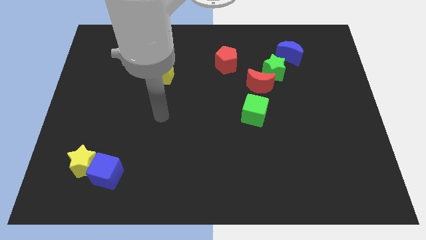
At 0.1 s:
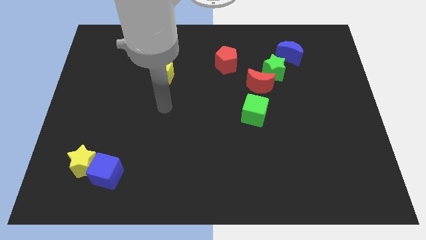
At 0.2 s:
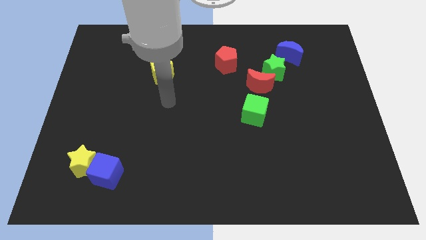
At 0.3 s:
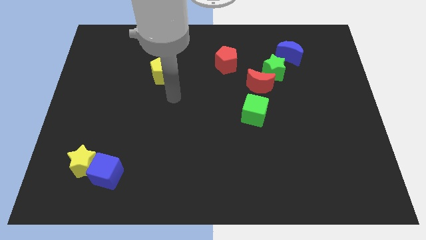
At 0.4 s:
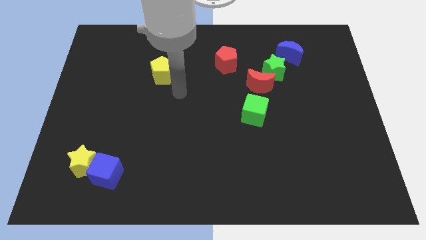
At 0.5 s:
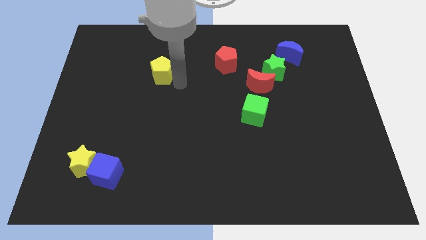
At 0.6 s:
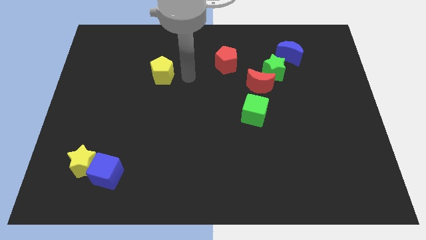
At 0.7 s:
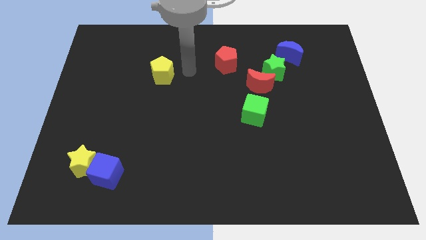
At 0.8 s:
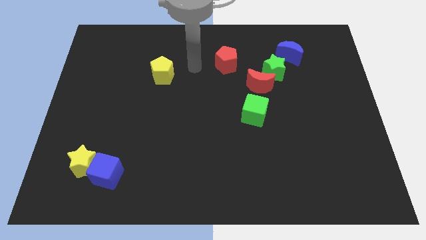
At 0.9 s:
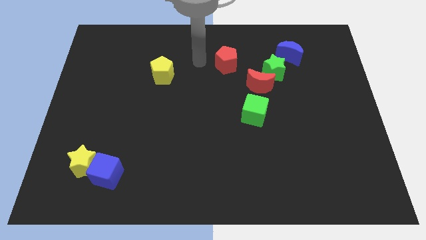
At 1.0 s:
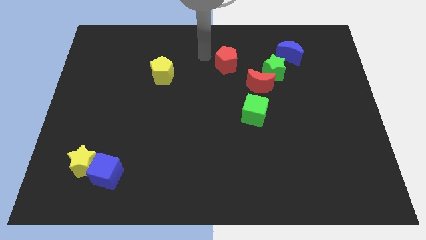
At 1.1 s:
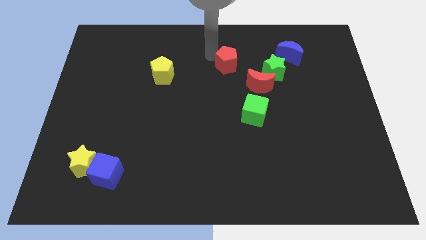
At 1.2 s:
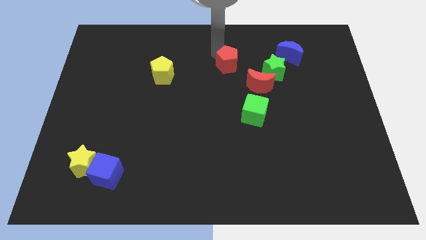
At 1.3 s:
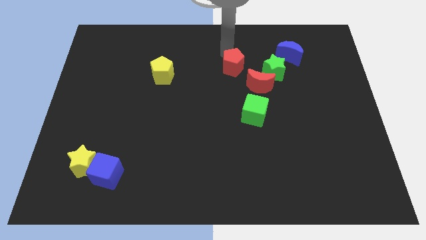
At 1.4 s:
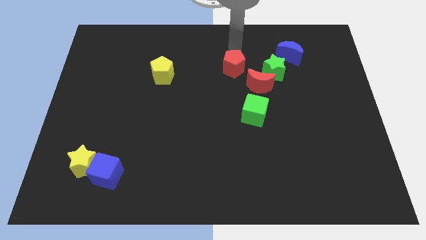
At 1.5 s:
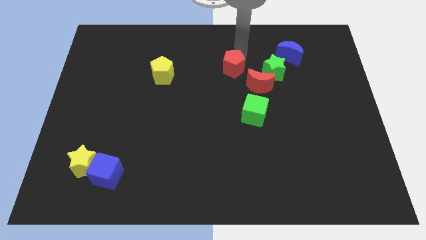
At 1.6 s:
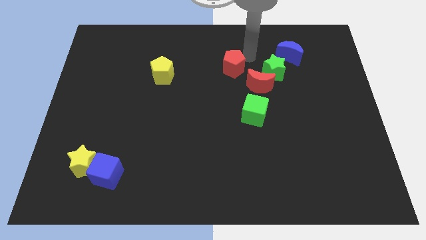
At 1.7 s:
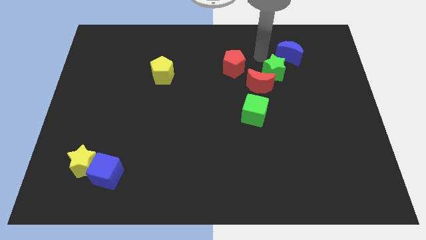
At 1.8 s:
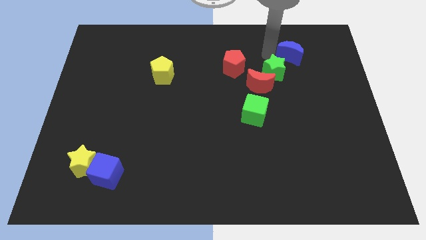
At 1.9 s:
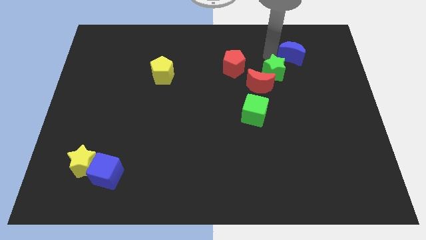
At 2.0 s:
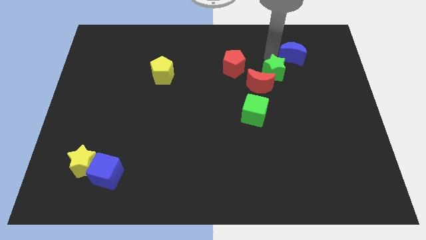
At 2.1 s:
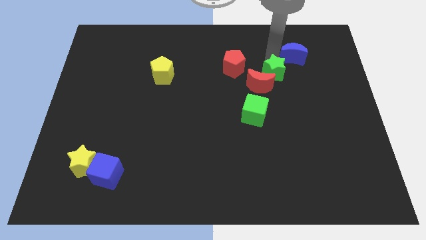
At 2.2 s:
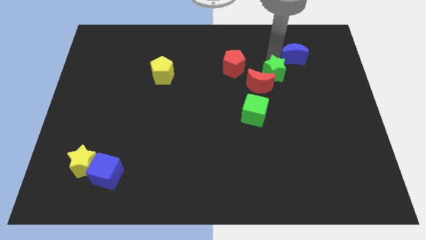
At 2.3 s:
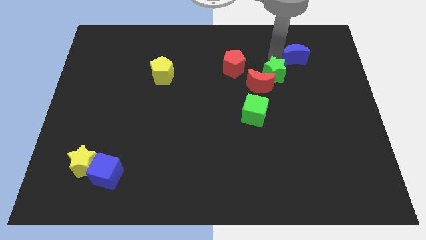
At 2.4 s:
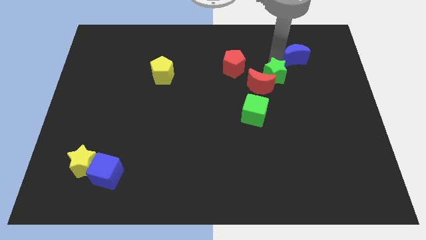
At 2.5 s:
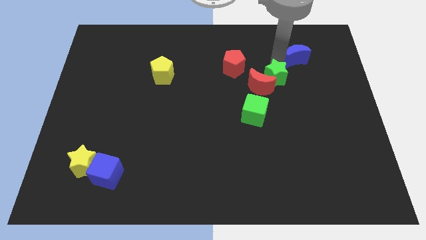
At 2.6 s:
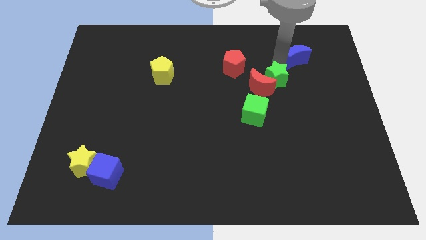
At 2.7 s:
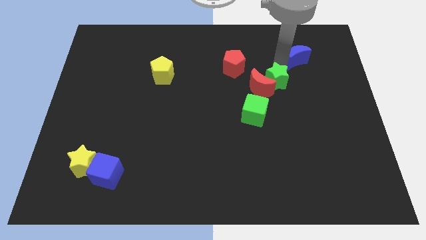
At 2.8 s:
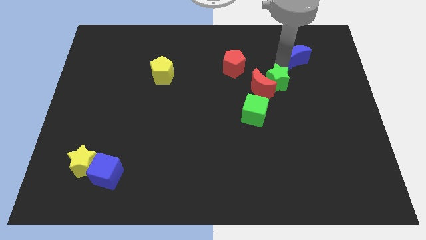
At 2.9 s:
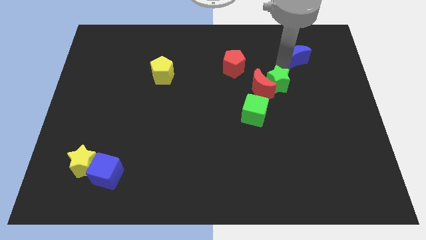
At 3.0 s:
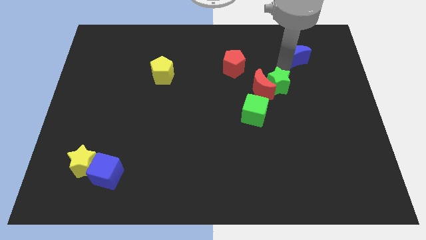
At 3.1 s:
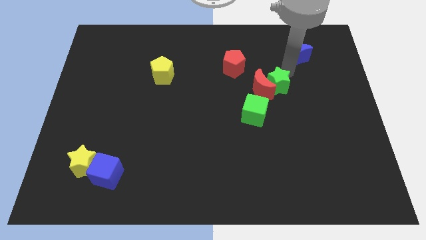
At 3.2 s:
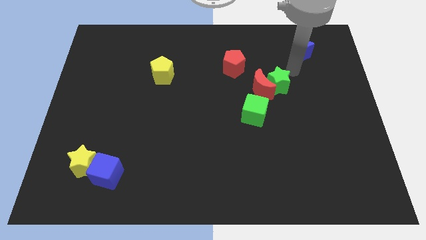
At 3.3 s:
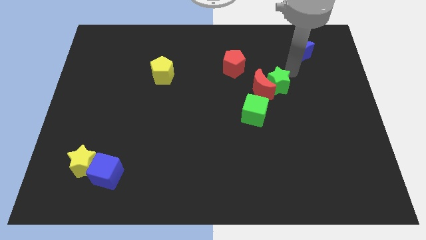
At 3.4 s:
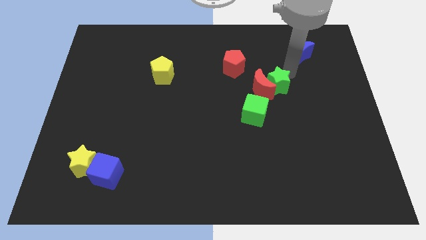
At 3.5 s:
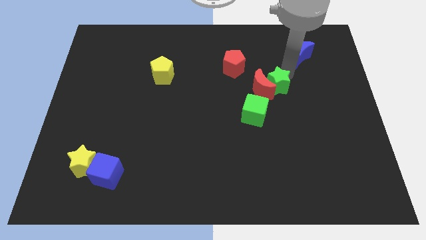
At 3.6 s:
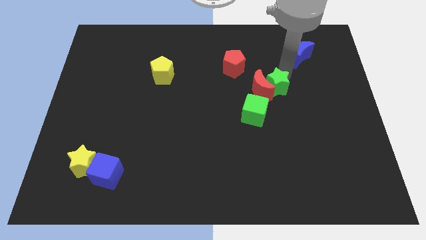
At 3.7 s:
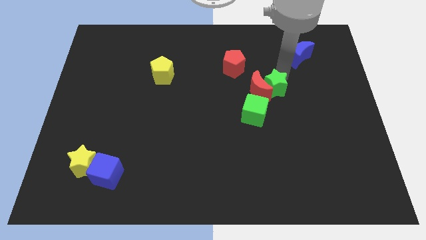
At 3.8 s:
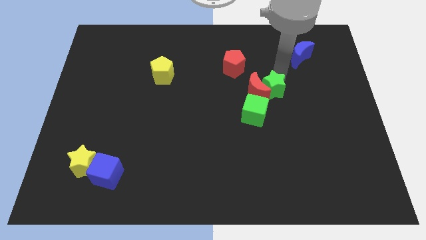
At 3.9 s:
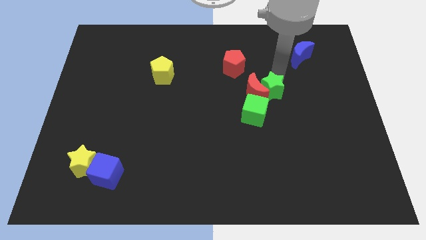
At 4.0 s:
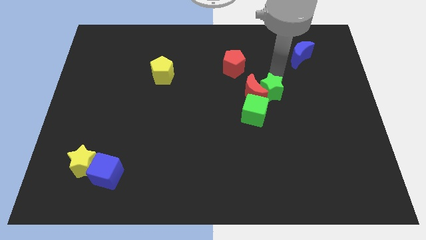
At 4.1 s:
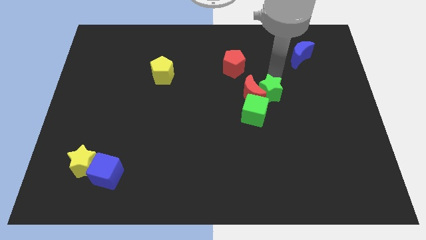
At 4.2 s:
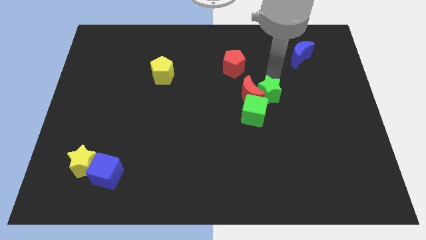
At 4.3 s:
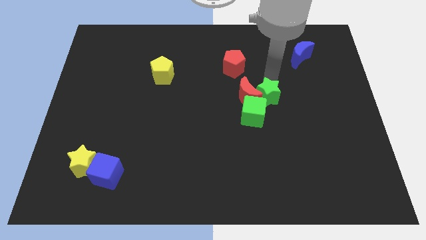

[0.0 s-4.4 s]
push the green star down and then left a bit

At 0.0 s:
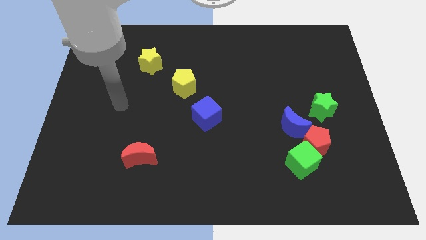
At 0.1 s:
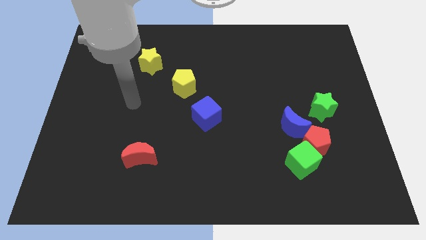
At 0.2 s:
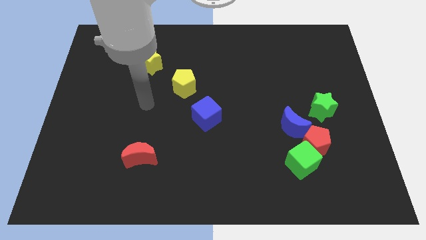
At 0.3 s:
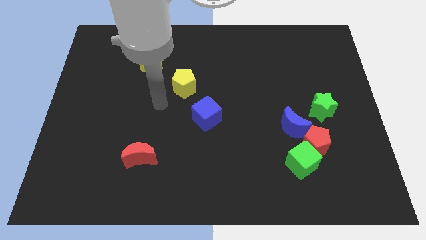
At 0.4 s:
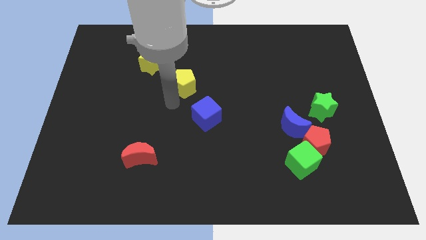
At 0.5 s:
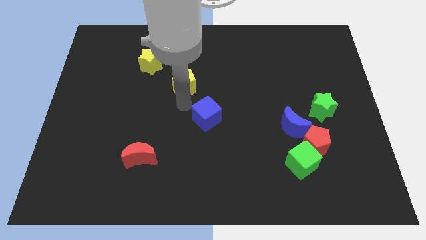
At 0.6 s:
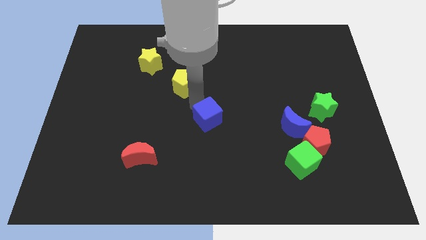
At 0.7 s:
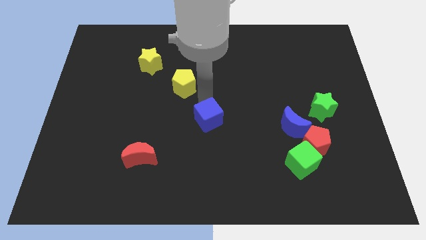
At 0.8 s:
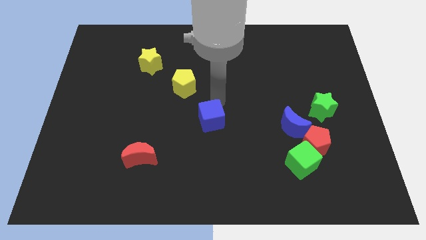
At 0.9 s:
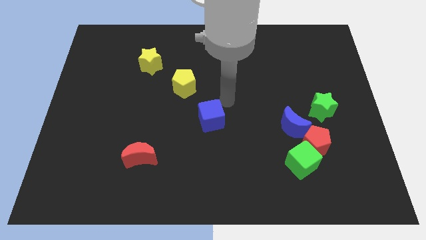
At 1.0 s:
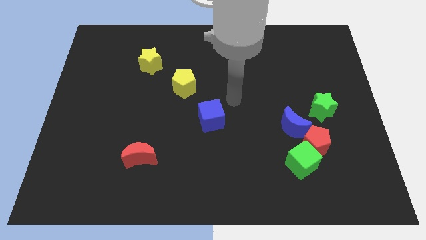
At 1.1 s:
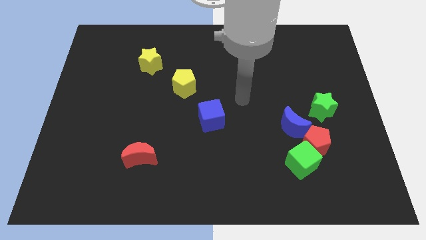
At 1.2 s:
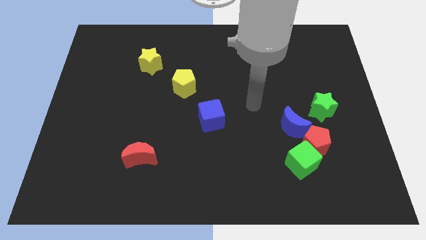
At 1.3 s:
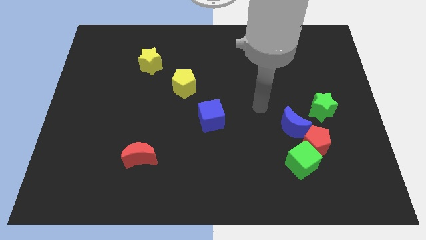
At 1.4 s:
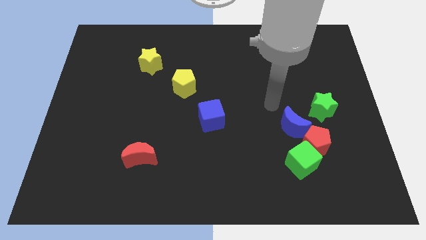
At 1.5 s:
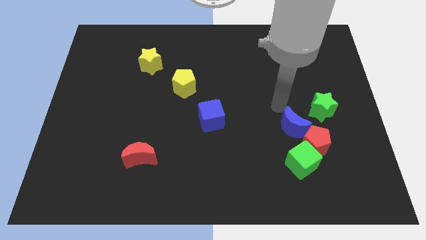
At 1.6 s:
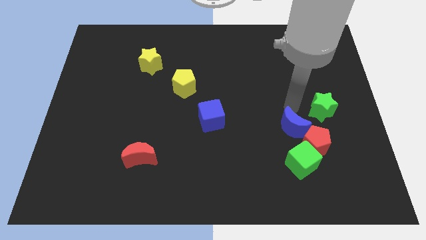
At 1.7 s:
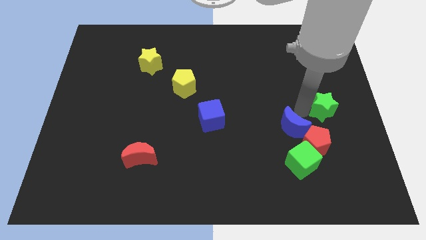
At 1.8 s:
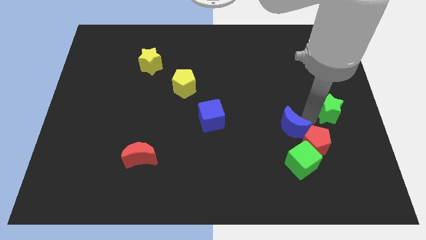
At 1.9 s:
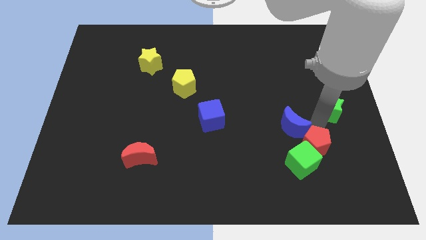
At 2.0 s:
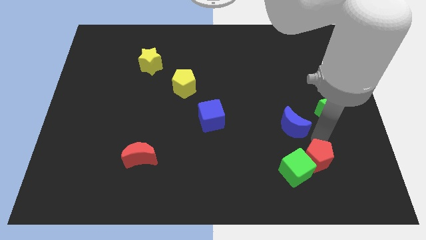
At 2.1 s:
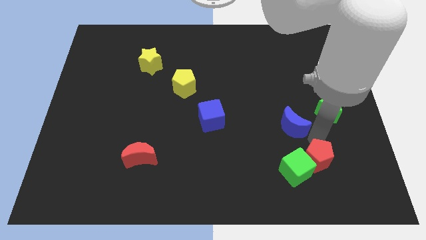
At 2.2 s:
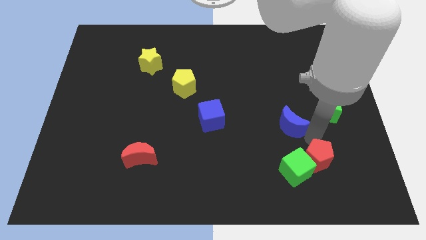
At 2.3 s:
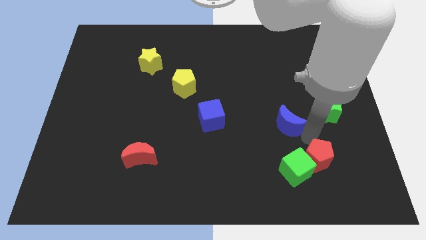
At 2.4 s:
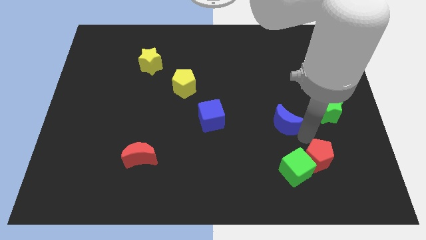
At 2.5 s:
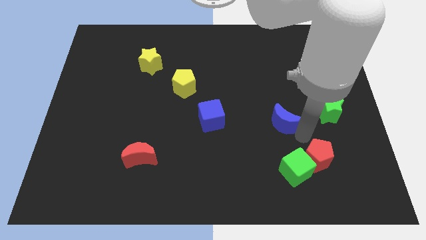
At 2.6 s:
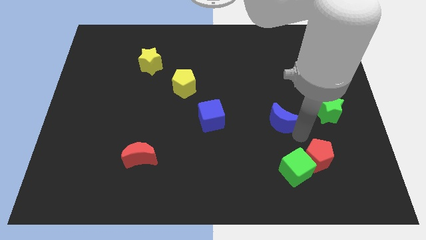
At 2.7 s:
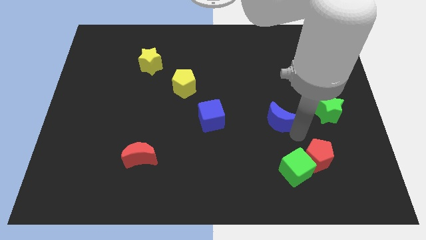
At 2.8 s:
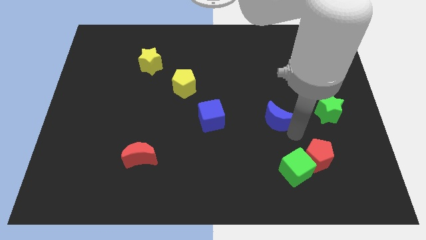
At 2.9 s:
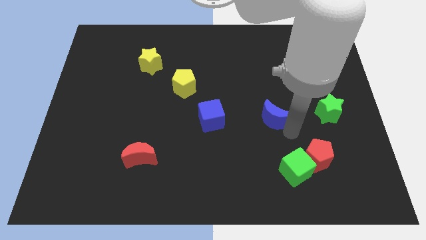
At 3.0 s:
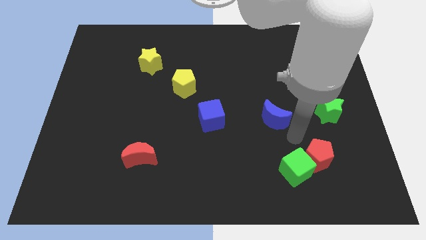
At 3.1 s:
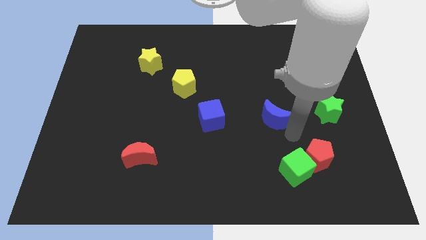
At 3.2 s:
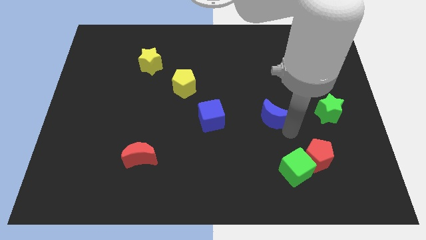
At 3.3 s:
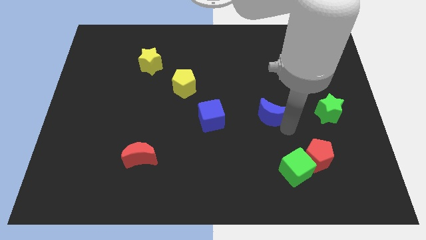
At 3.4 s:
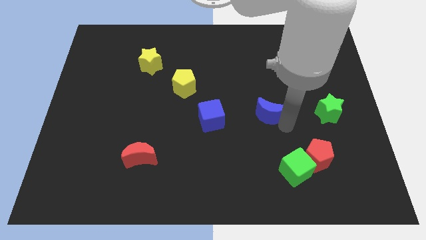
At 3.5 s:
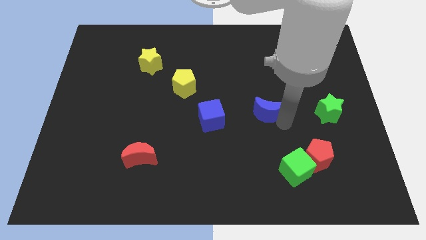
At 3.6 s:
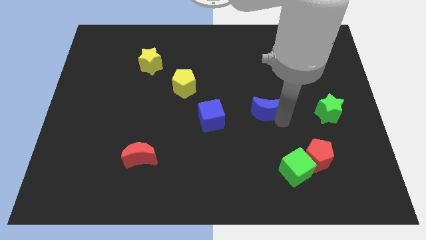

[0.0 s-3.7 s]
slightly slide the blue moon up and then left
